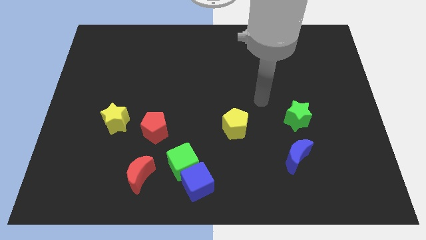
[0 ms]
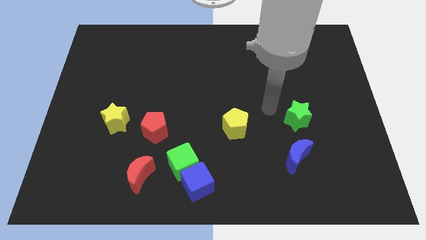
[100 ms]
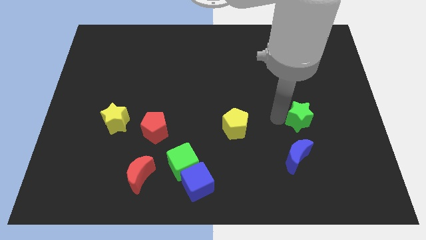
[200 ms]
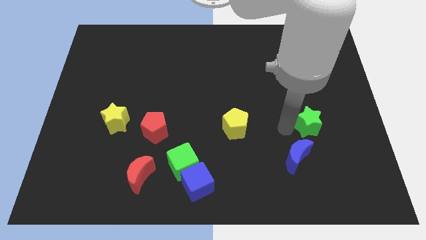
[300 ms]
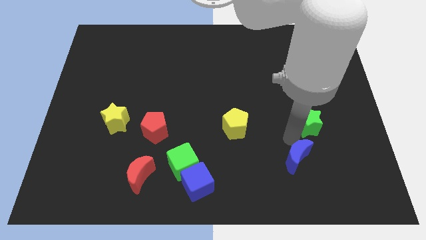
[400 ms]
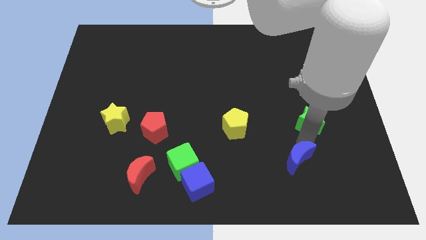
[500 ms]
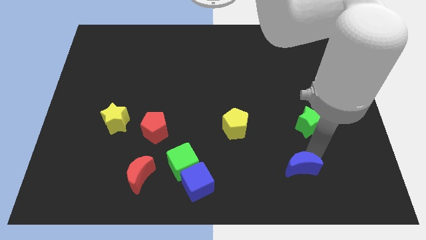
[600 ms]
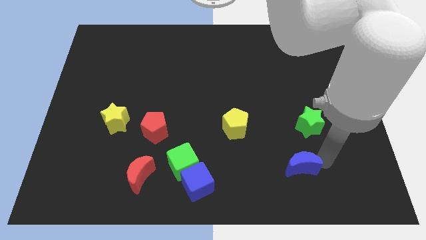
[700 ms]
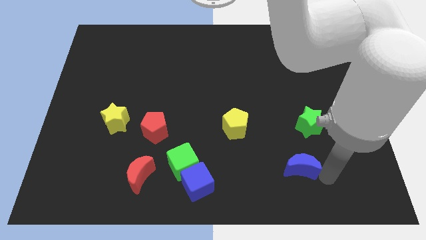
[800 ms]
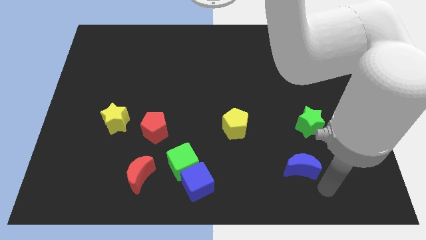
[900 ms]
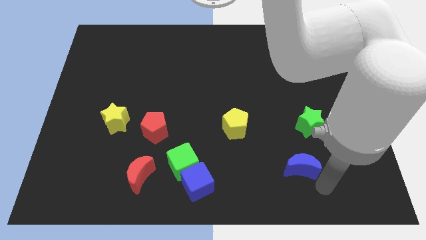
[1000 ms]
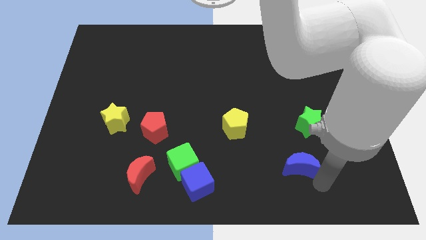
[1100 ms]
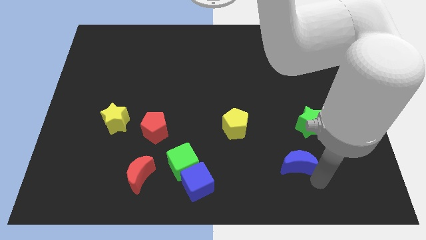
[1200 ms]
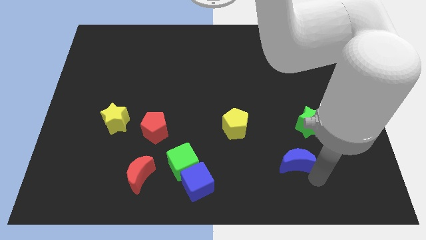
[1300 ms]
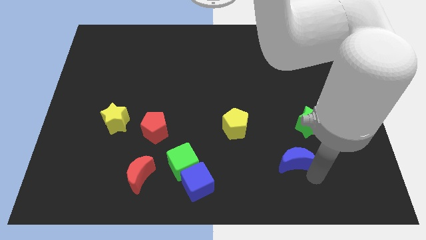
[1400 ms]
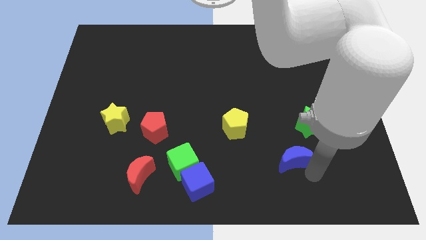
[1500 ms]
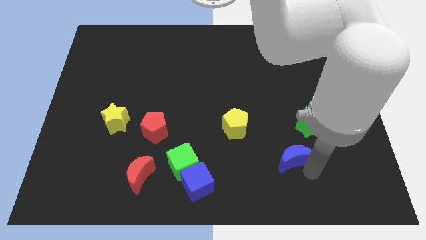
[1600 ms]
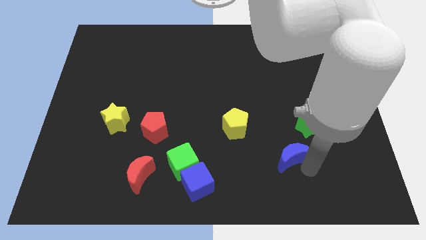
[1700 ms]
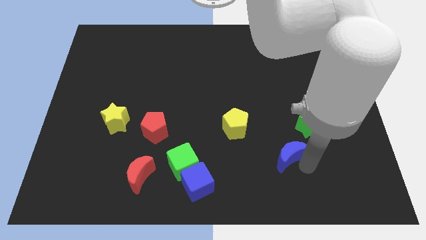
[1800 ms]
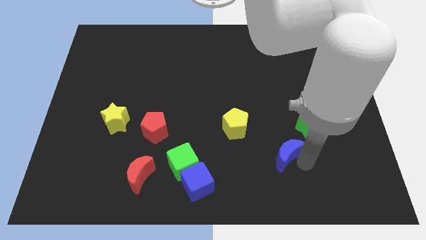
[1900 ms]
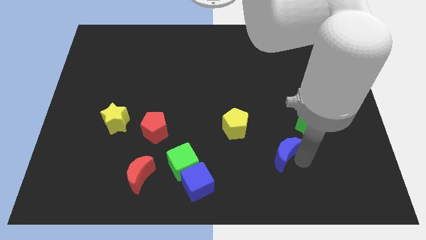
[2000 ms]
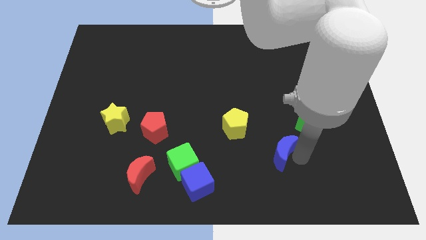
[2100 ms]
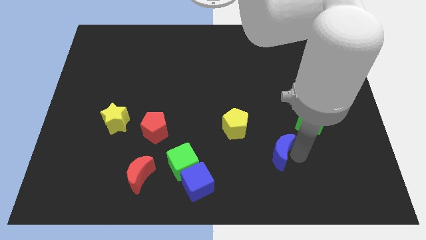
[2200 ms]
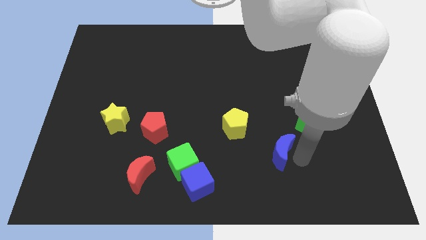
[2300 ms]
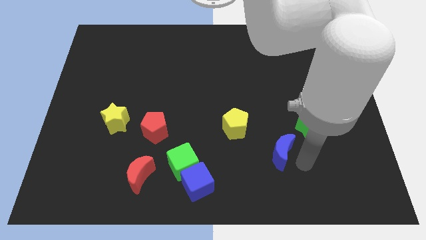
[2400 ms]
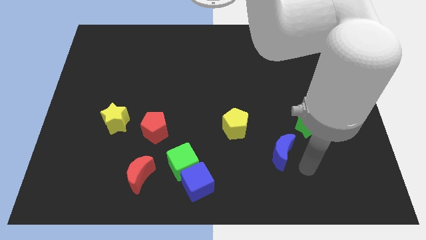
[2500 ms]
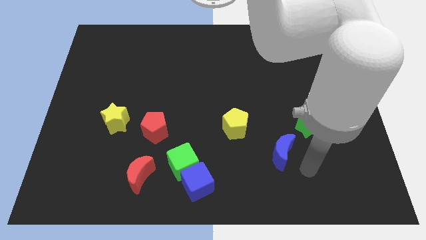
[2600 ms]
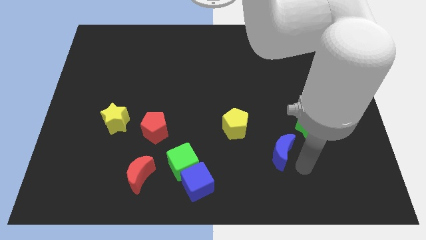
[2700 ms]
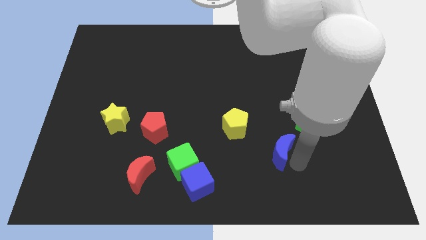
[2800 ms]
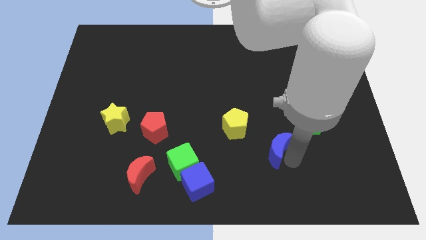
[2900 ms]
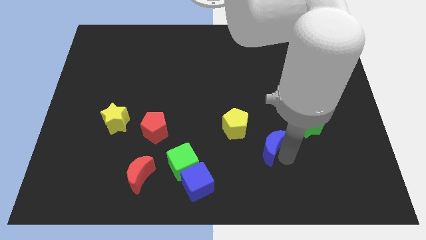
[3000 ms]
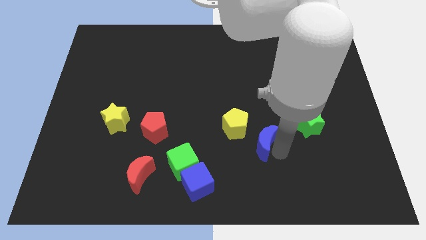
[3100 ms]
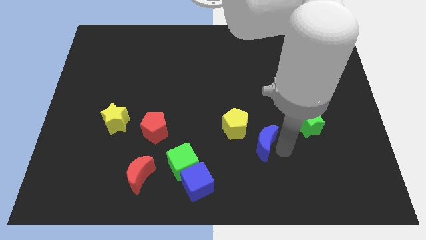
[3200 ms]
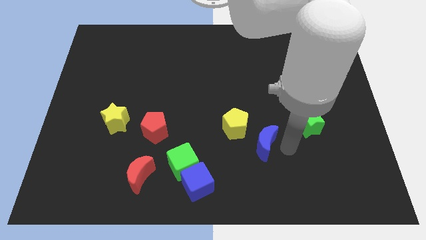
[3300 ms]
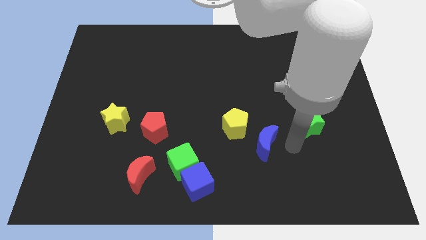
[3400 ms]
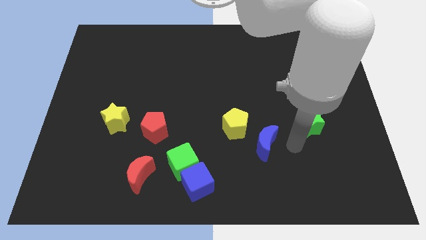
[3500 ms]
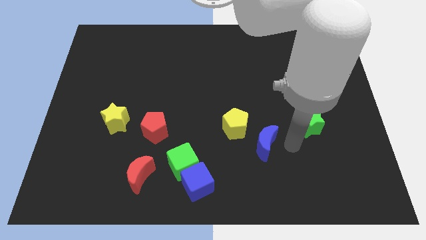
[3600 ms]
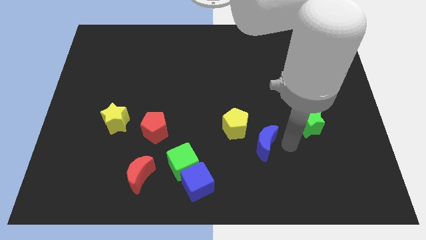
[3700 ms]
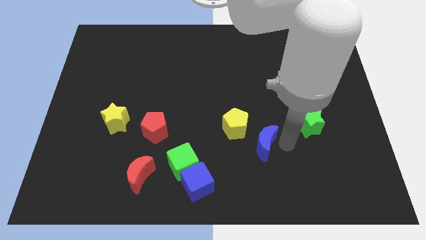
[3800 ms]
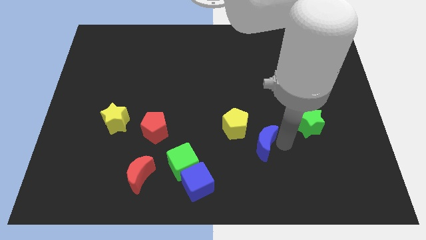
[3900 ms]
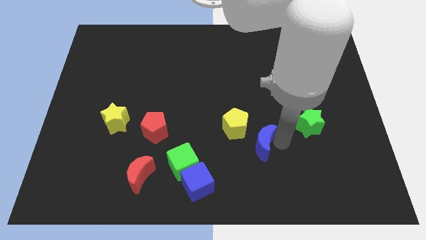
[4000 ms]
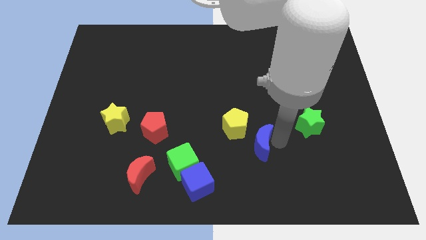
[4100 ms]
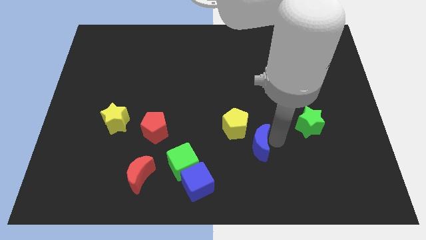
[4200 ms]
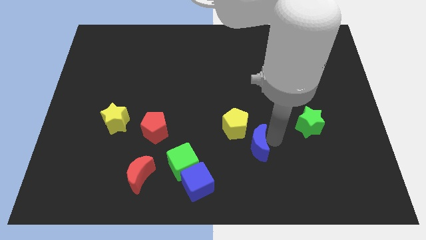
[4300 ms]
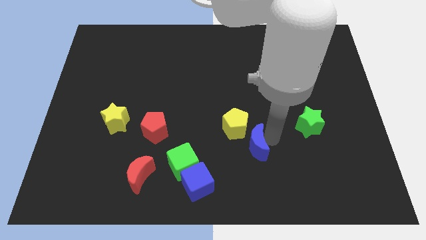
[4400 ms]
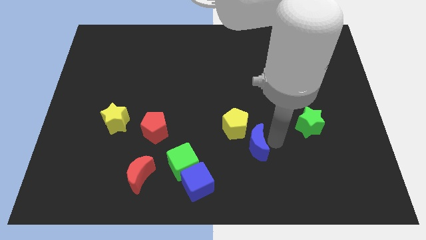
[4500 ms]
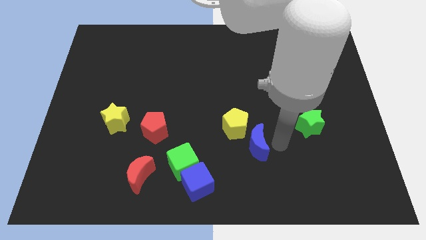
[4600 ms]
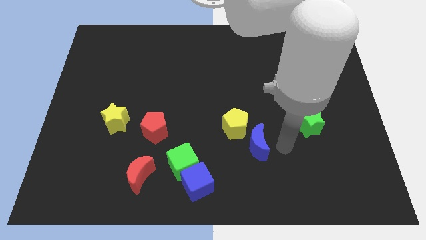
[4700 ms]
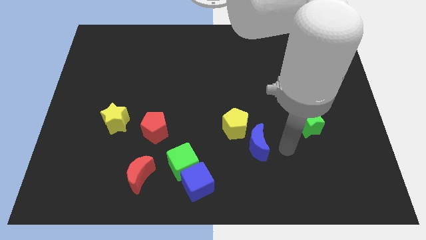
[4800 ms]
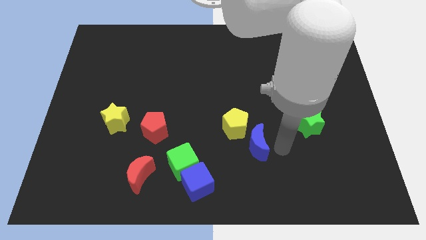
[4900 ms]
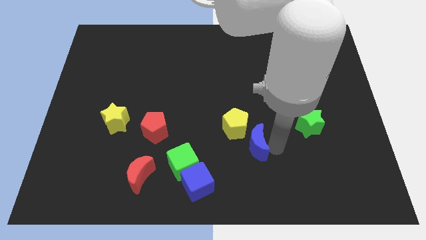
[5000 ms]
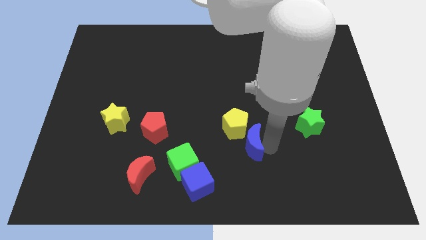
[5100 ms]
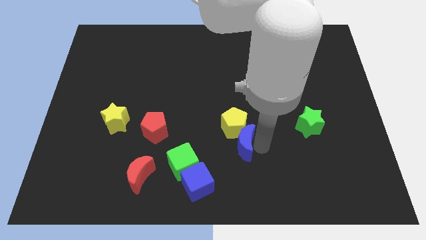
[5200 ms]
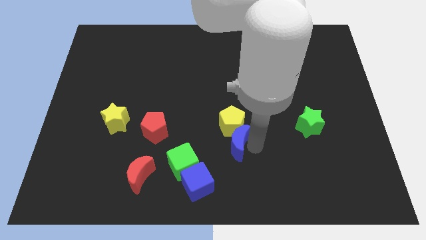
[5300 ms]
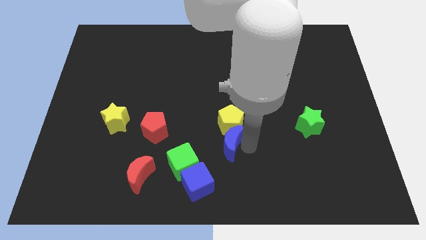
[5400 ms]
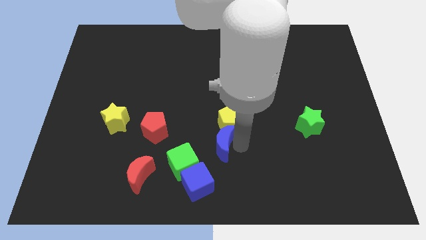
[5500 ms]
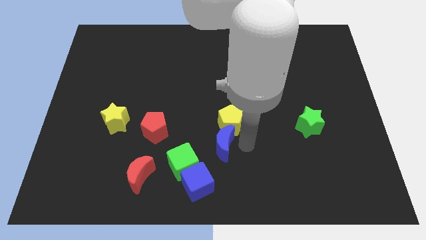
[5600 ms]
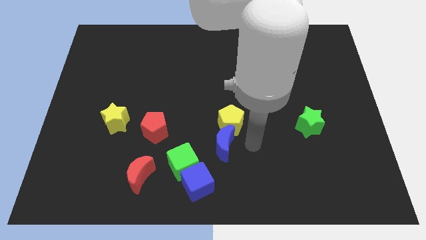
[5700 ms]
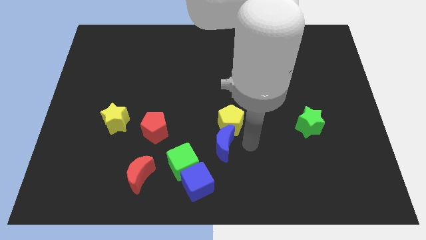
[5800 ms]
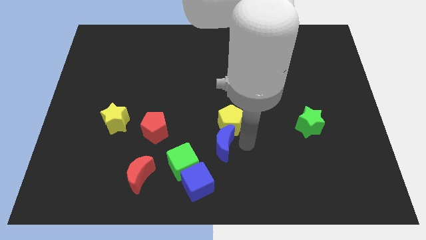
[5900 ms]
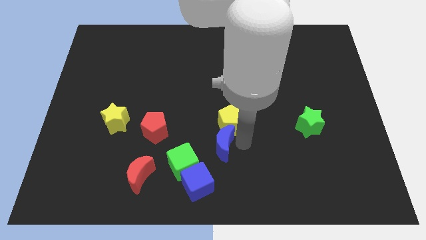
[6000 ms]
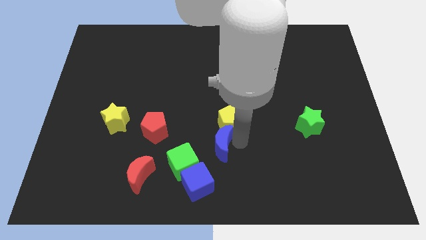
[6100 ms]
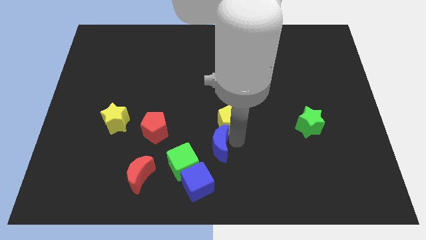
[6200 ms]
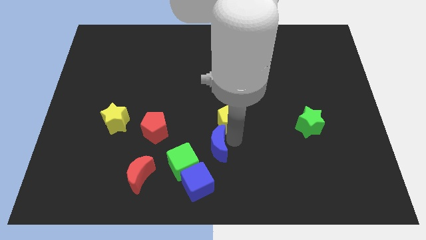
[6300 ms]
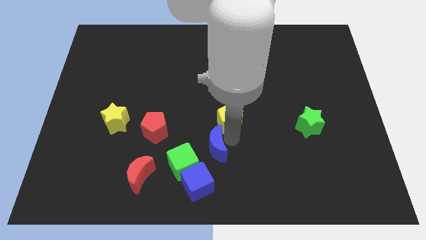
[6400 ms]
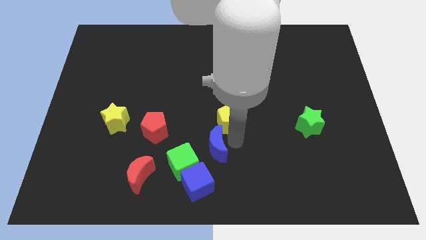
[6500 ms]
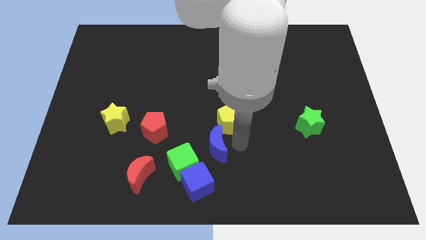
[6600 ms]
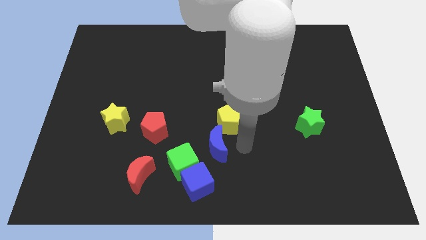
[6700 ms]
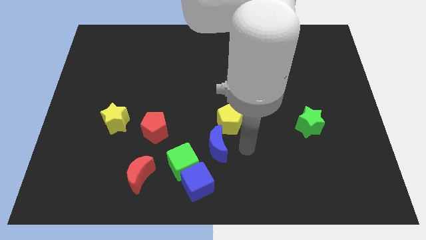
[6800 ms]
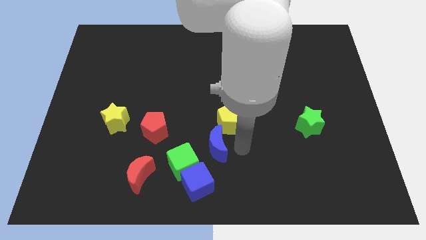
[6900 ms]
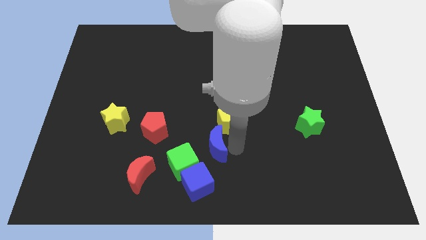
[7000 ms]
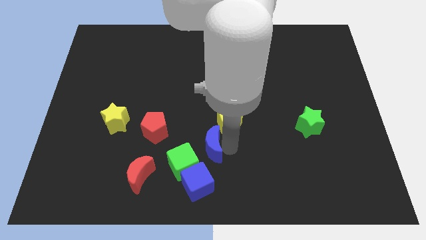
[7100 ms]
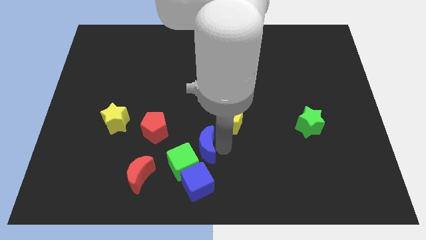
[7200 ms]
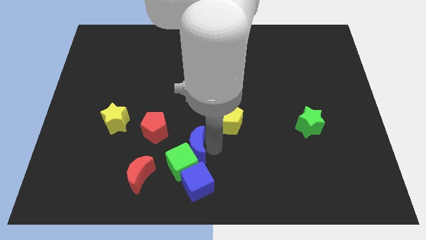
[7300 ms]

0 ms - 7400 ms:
push the blue moon to the left

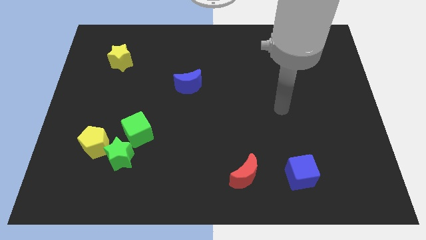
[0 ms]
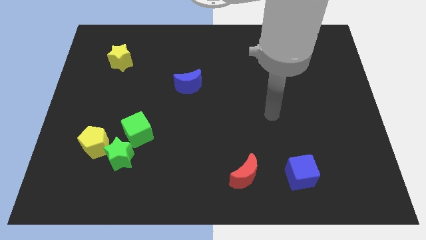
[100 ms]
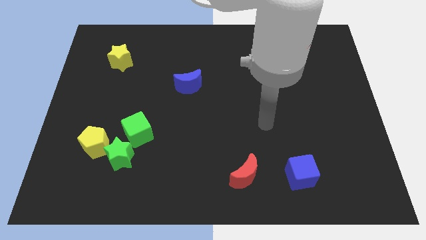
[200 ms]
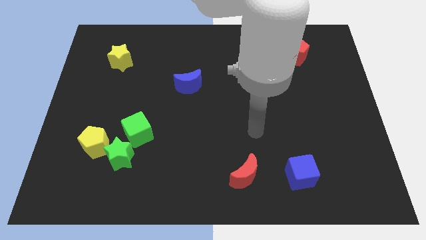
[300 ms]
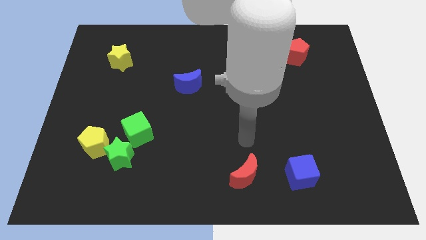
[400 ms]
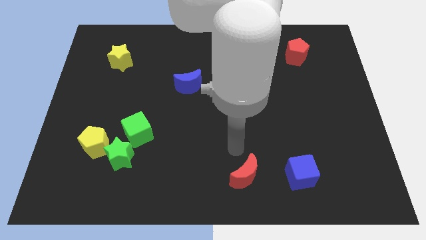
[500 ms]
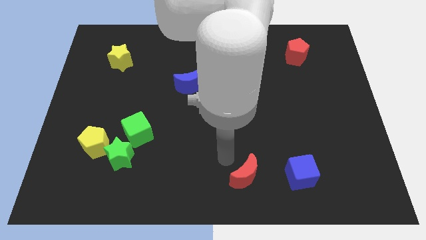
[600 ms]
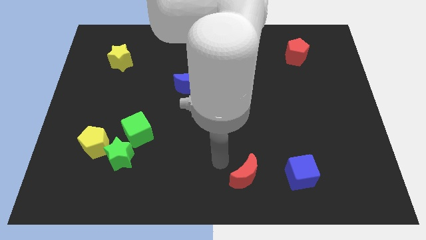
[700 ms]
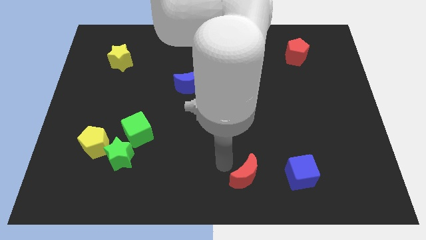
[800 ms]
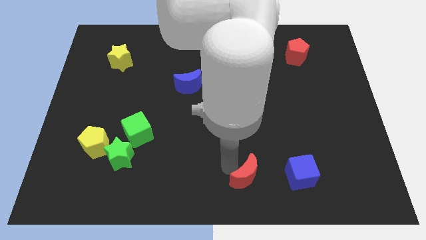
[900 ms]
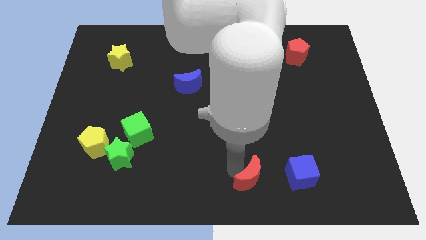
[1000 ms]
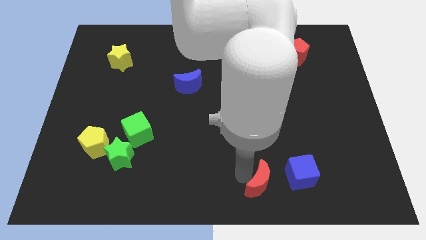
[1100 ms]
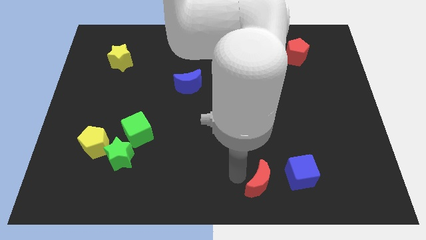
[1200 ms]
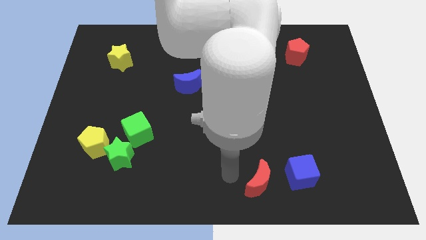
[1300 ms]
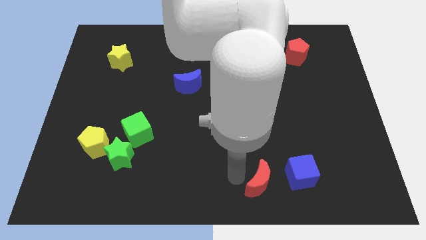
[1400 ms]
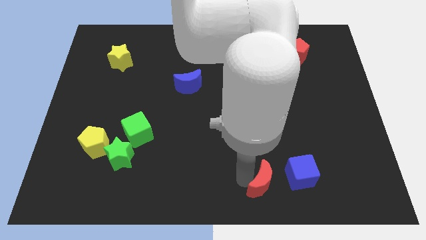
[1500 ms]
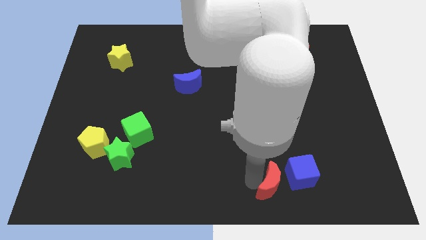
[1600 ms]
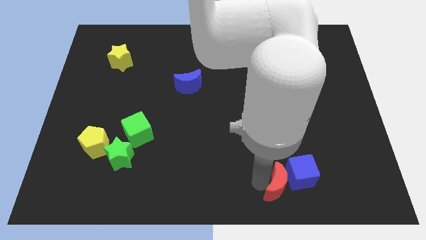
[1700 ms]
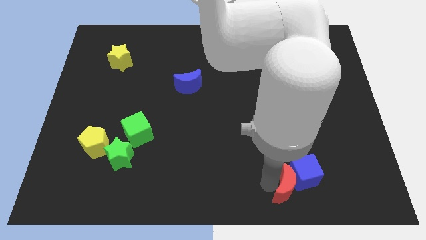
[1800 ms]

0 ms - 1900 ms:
slightly push the red moon to the right
